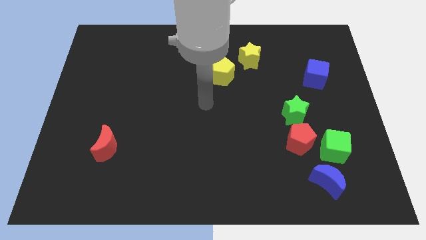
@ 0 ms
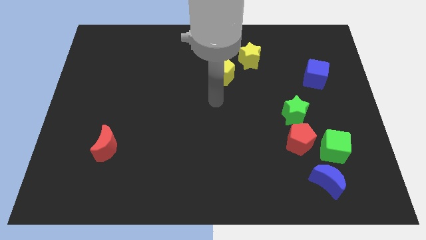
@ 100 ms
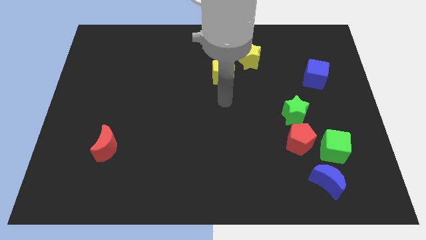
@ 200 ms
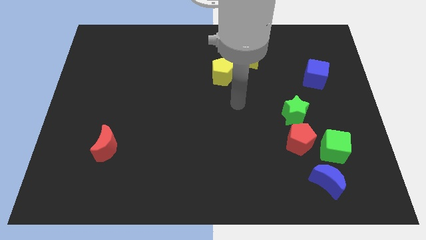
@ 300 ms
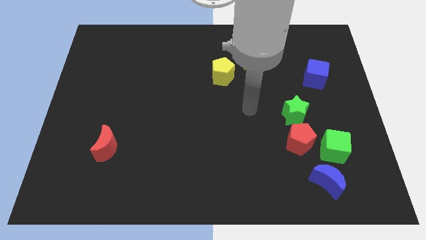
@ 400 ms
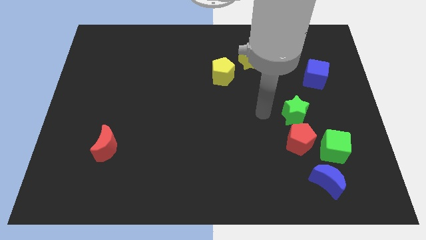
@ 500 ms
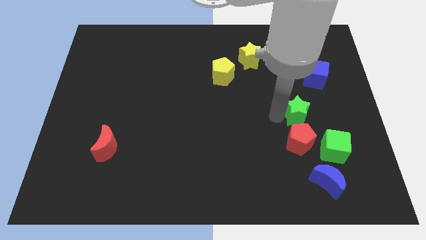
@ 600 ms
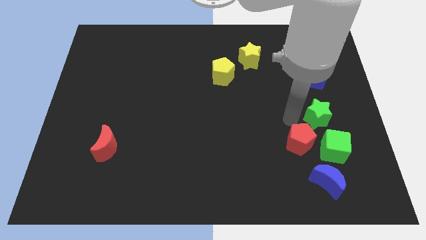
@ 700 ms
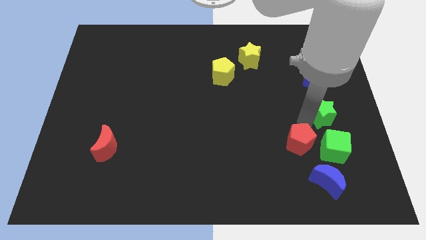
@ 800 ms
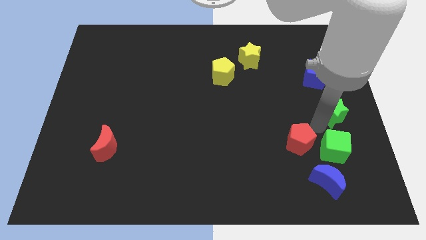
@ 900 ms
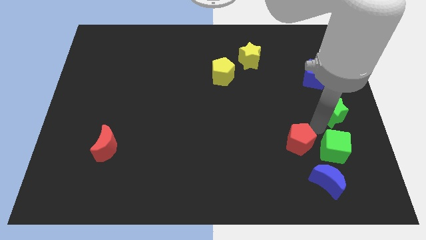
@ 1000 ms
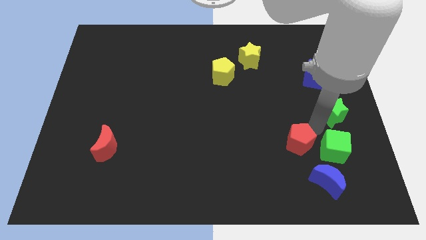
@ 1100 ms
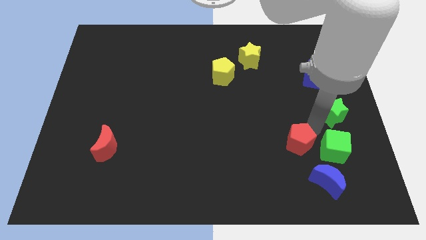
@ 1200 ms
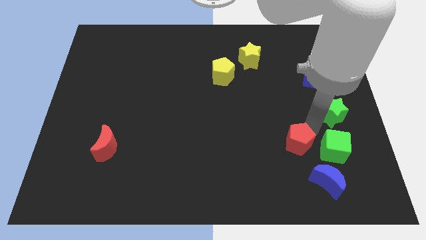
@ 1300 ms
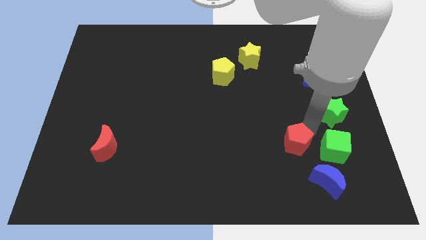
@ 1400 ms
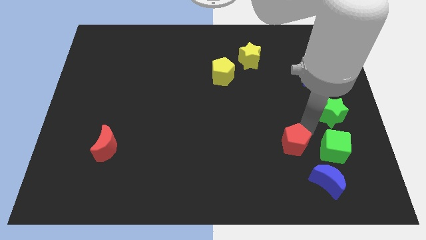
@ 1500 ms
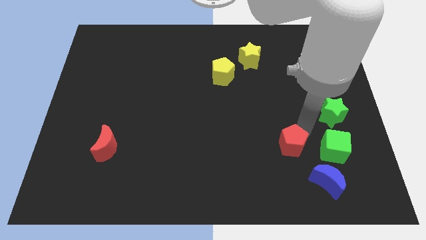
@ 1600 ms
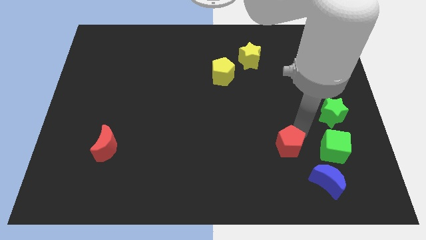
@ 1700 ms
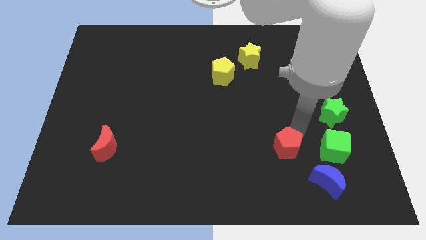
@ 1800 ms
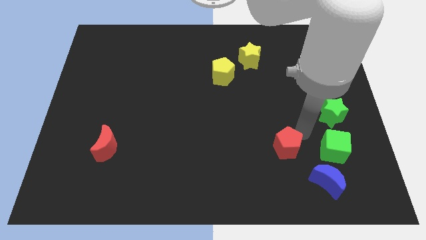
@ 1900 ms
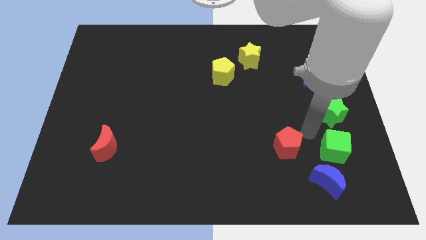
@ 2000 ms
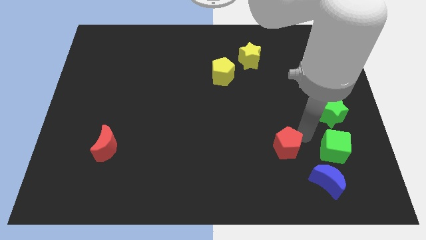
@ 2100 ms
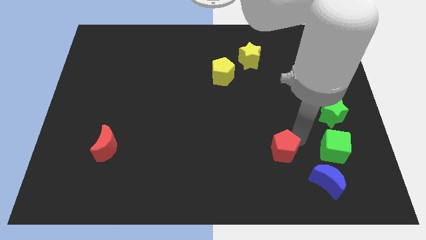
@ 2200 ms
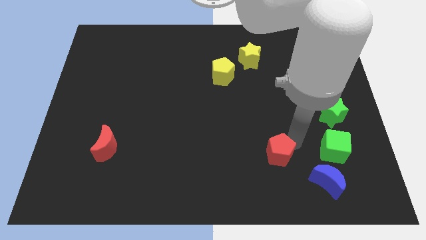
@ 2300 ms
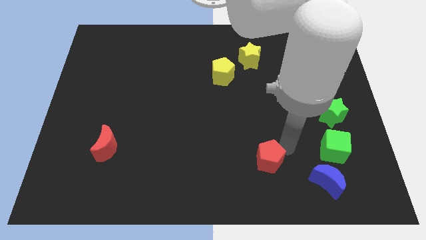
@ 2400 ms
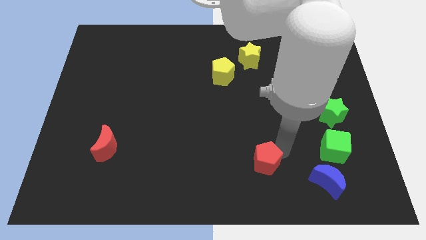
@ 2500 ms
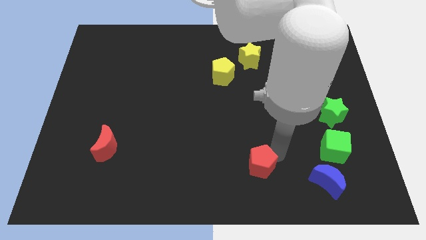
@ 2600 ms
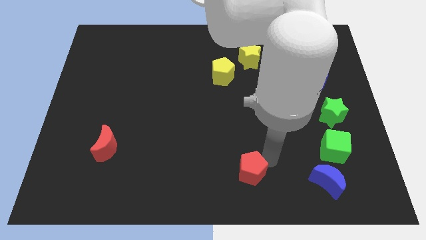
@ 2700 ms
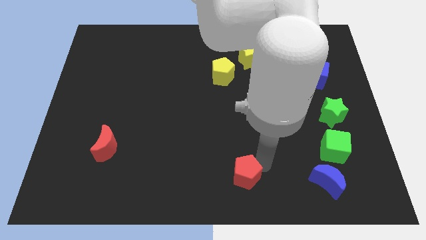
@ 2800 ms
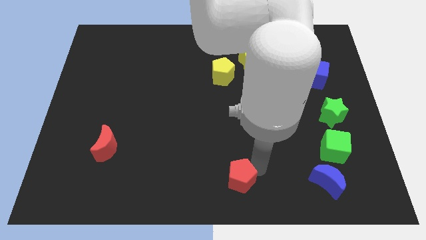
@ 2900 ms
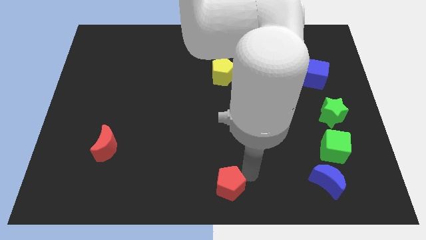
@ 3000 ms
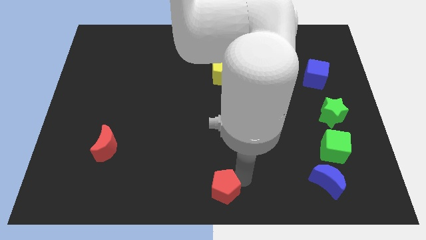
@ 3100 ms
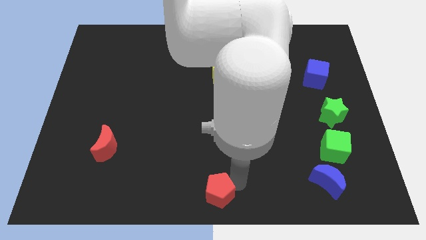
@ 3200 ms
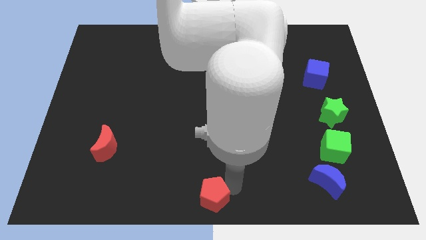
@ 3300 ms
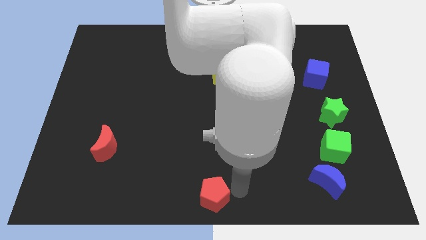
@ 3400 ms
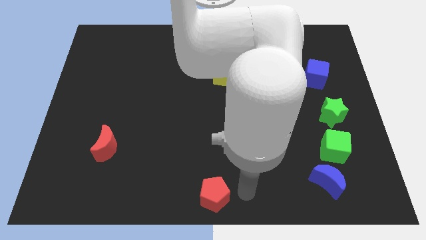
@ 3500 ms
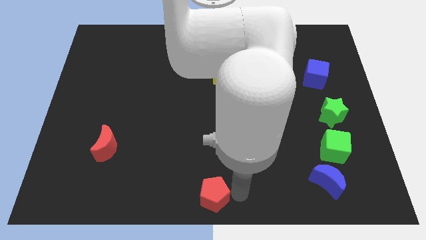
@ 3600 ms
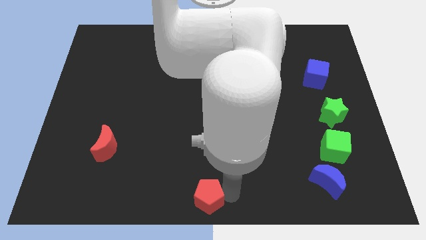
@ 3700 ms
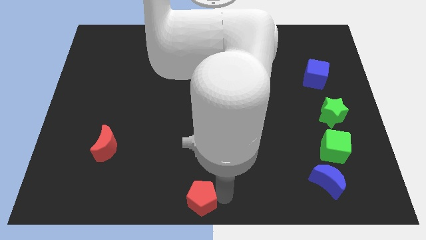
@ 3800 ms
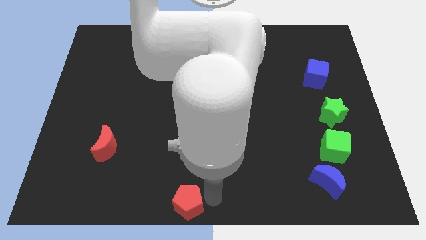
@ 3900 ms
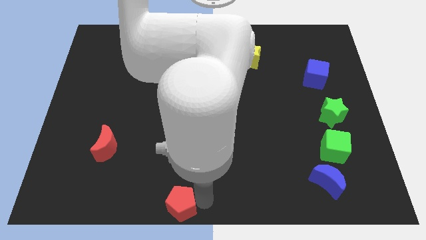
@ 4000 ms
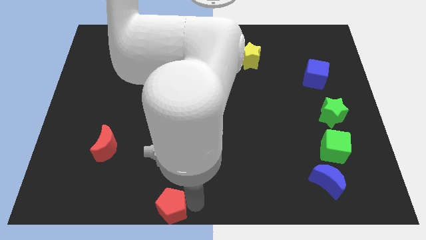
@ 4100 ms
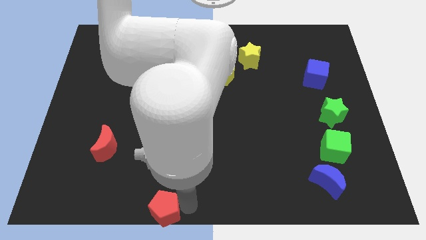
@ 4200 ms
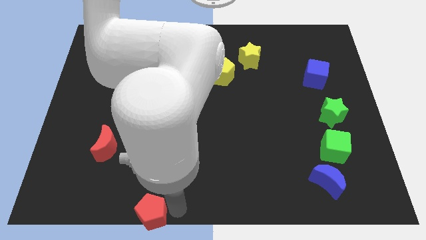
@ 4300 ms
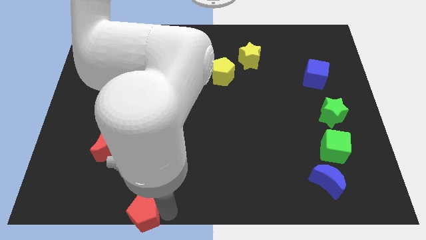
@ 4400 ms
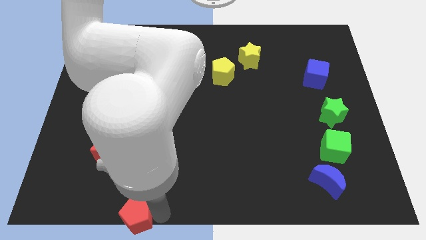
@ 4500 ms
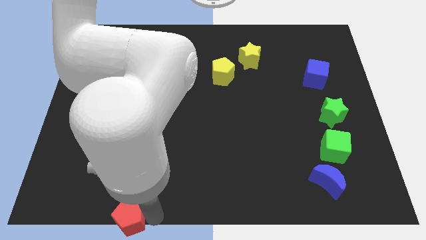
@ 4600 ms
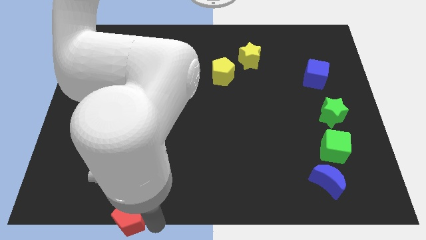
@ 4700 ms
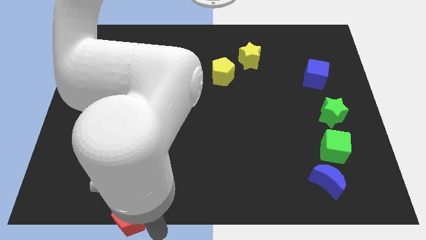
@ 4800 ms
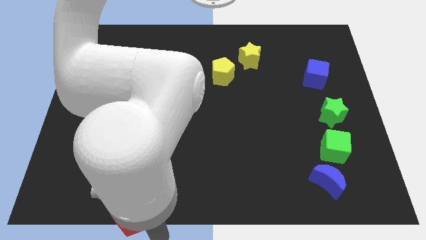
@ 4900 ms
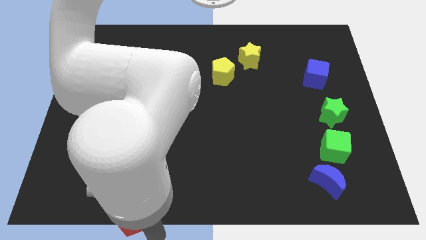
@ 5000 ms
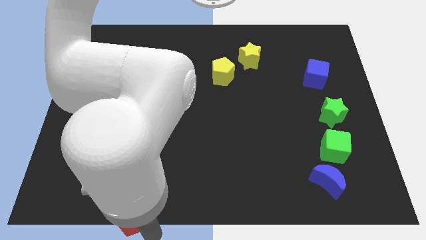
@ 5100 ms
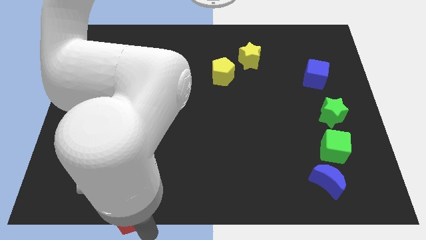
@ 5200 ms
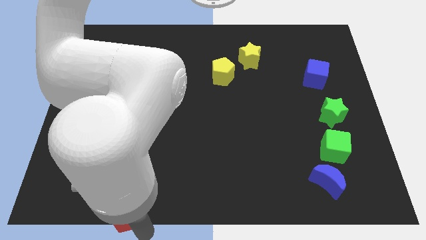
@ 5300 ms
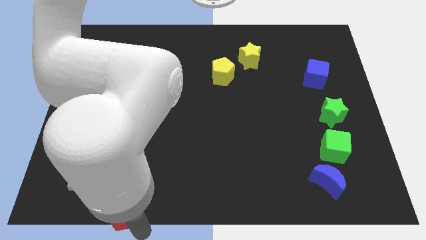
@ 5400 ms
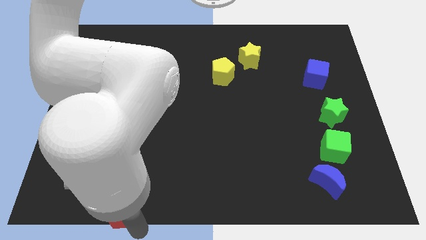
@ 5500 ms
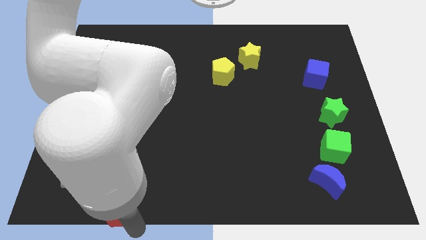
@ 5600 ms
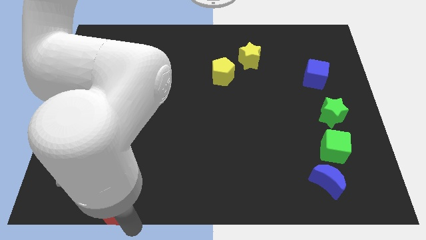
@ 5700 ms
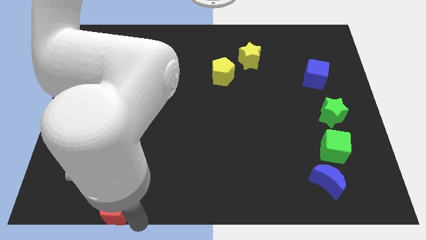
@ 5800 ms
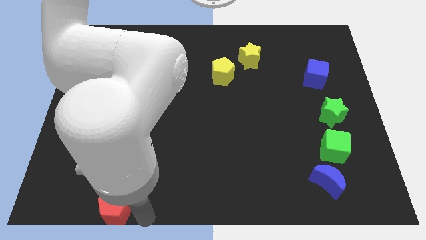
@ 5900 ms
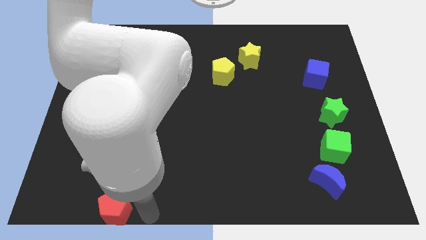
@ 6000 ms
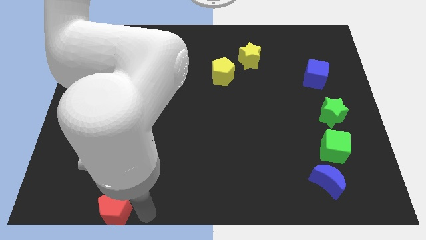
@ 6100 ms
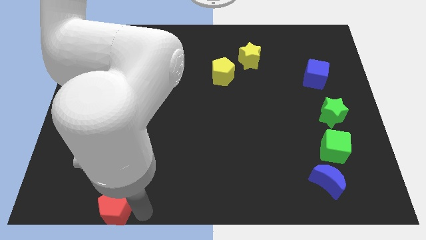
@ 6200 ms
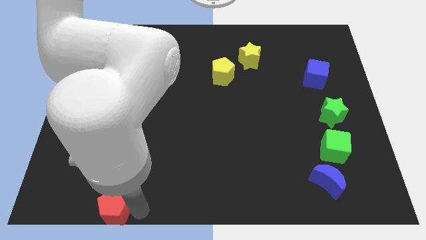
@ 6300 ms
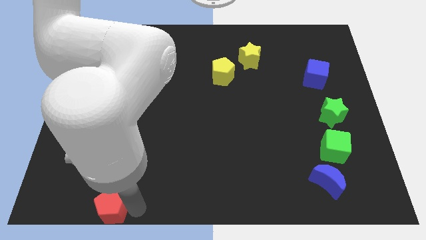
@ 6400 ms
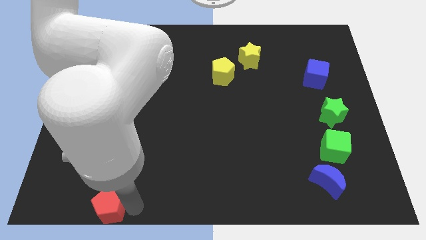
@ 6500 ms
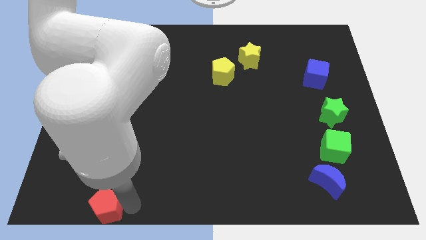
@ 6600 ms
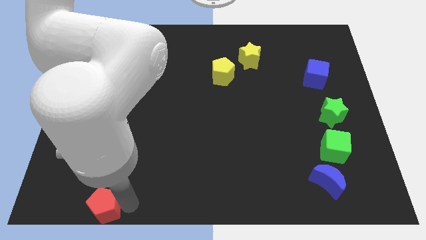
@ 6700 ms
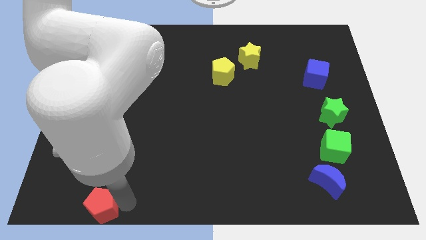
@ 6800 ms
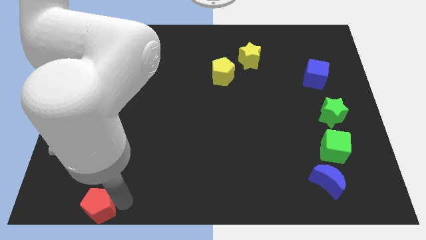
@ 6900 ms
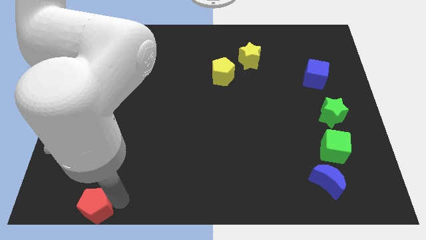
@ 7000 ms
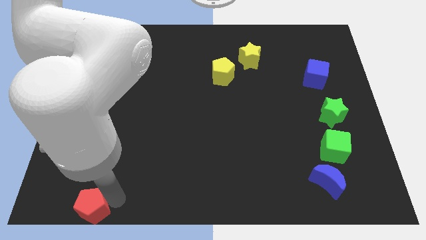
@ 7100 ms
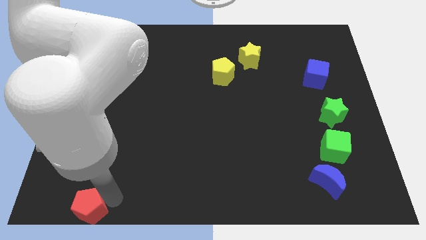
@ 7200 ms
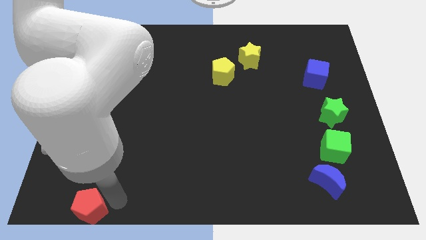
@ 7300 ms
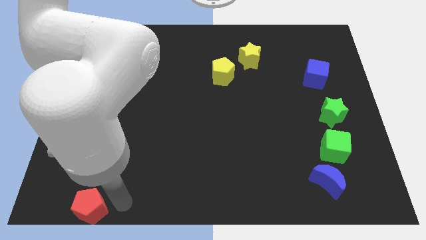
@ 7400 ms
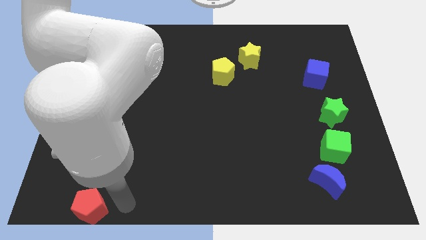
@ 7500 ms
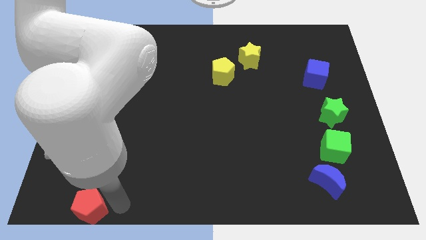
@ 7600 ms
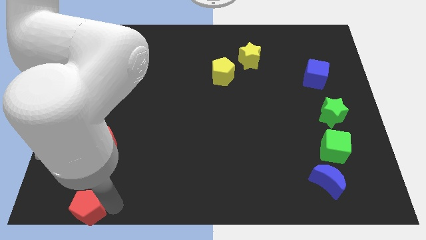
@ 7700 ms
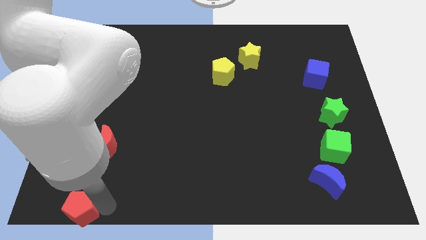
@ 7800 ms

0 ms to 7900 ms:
put the red pentagon to the bottom left corner

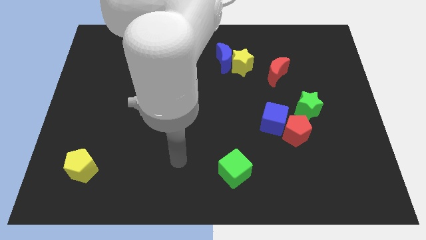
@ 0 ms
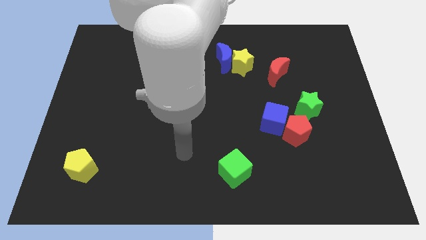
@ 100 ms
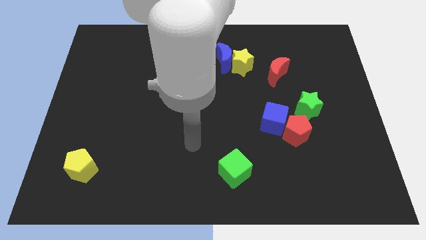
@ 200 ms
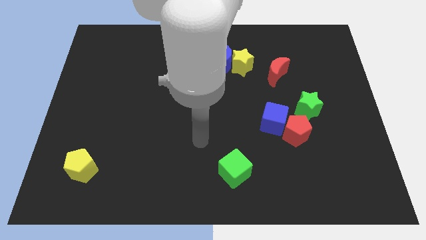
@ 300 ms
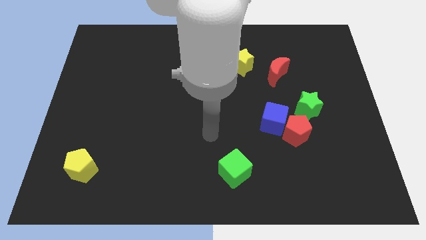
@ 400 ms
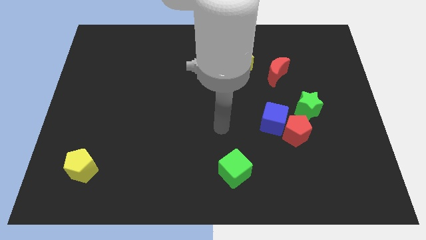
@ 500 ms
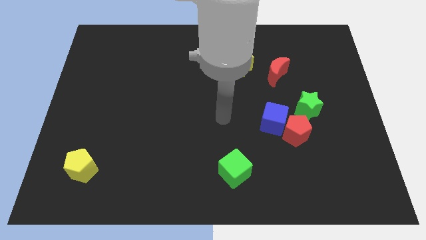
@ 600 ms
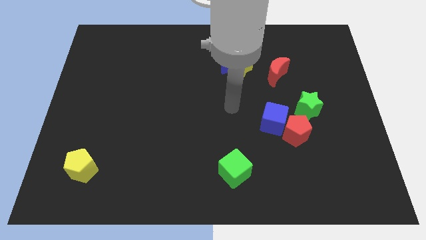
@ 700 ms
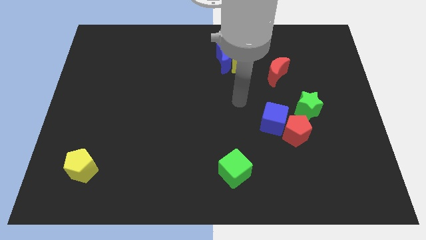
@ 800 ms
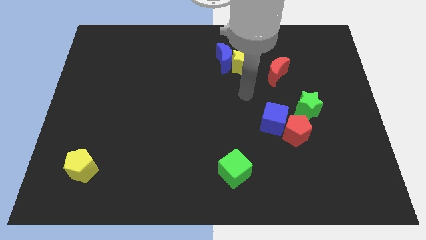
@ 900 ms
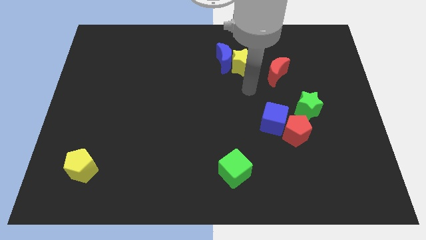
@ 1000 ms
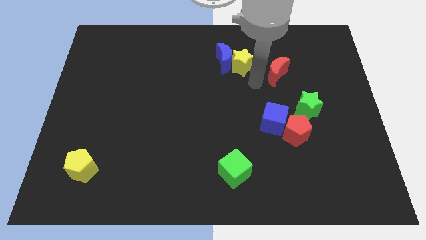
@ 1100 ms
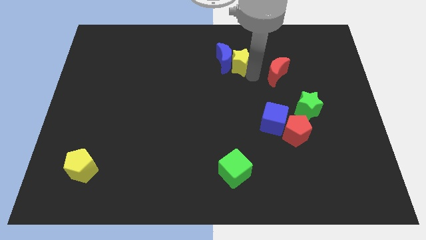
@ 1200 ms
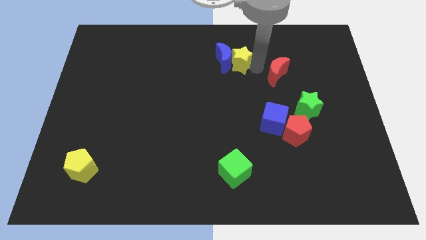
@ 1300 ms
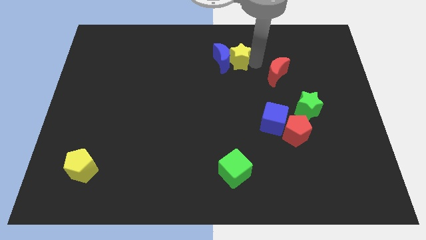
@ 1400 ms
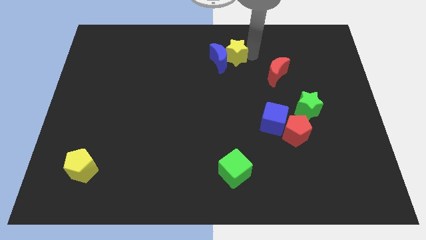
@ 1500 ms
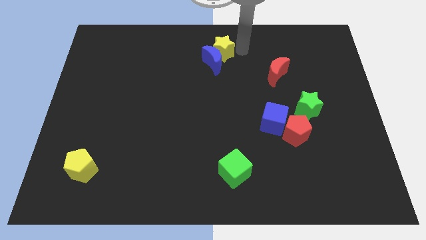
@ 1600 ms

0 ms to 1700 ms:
push the blue moon to the center
